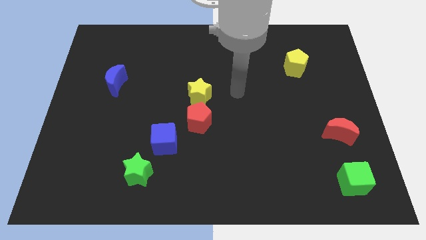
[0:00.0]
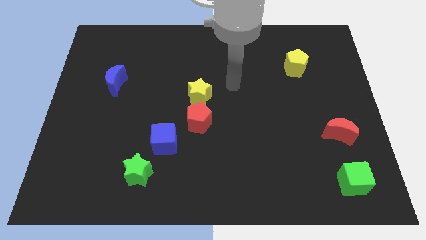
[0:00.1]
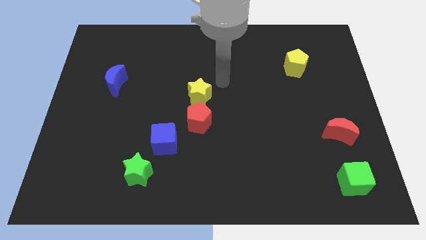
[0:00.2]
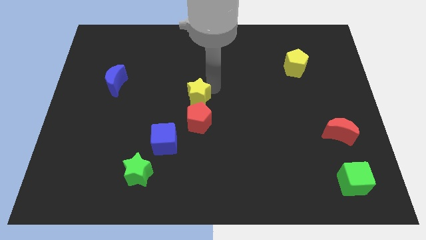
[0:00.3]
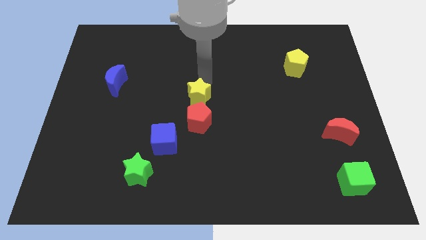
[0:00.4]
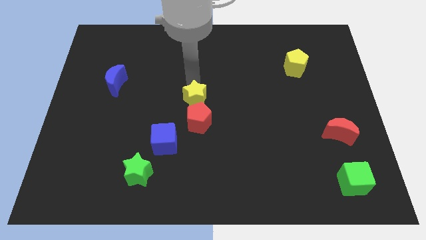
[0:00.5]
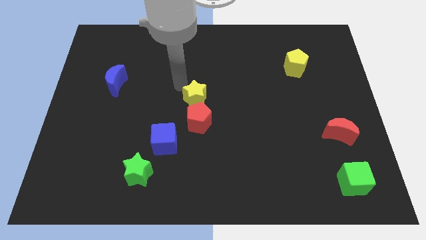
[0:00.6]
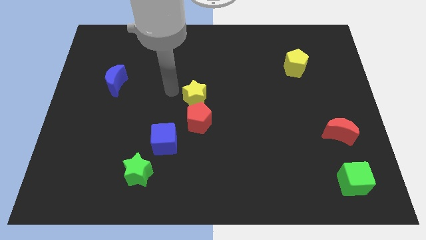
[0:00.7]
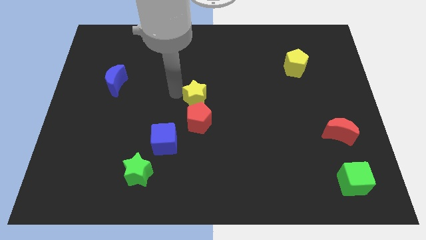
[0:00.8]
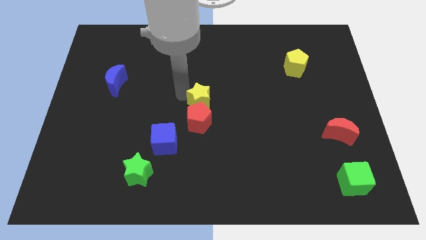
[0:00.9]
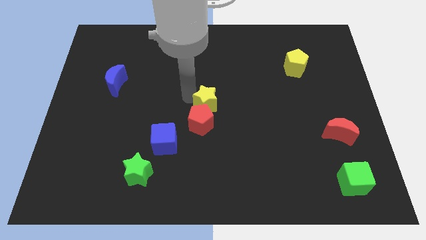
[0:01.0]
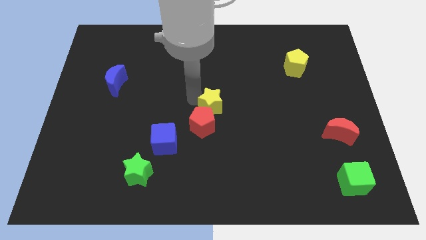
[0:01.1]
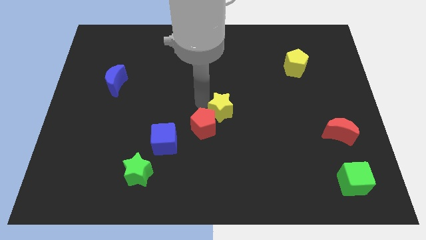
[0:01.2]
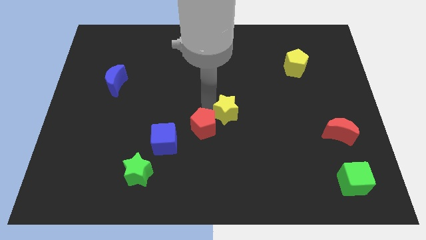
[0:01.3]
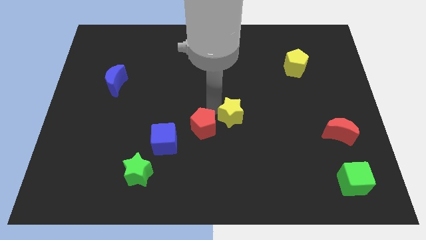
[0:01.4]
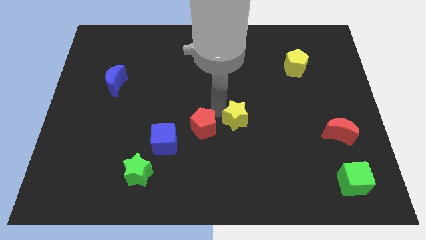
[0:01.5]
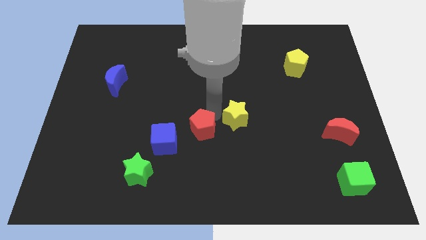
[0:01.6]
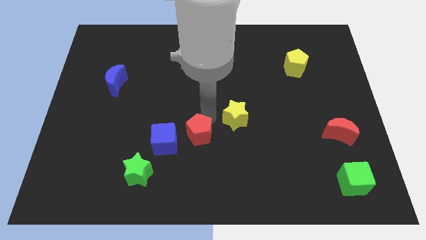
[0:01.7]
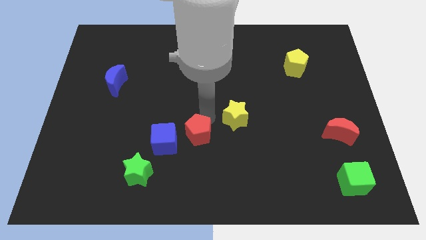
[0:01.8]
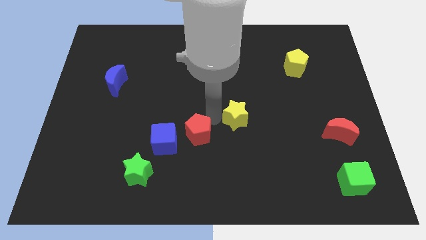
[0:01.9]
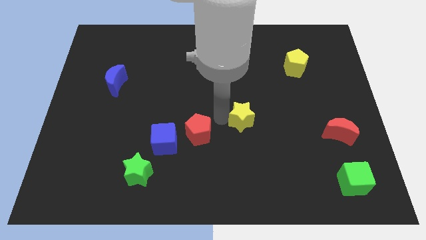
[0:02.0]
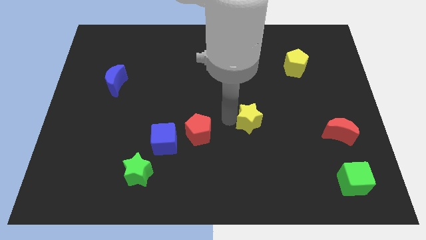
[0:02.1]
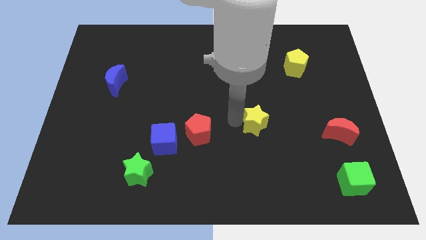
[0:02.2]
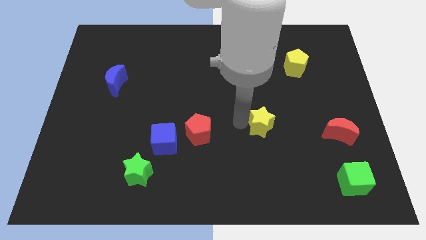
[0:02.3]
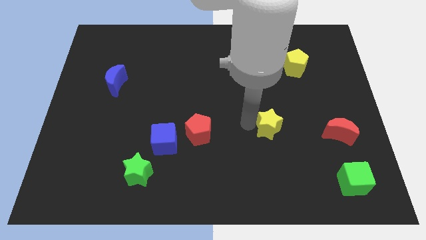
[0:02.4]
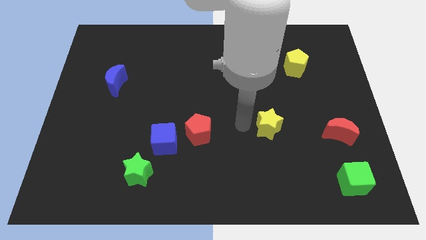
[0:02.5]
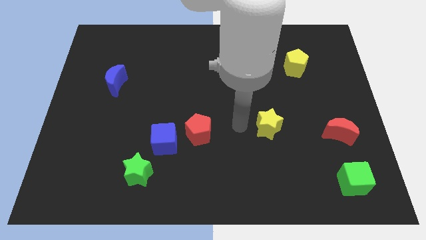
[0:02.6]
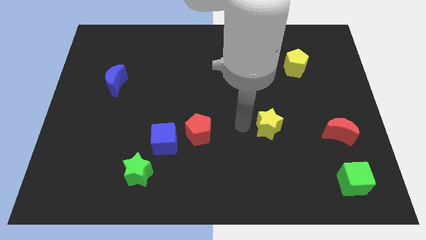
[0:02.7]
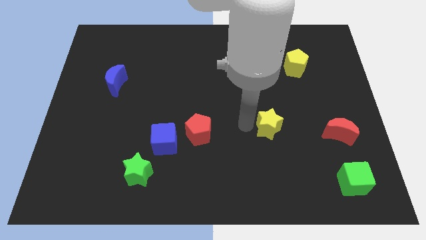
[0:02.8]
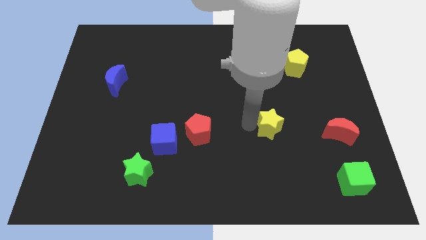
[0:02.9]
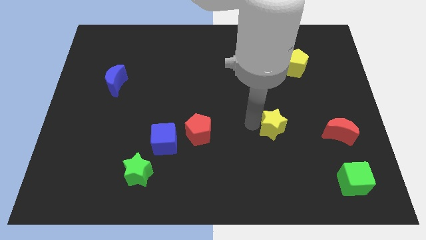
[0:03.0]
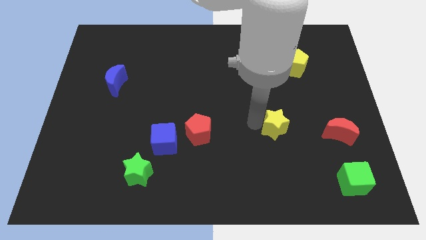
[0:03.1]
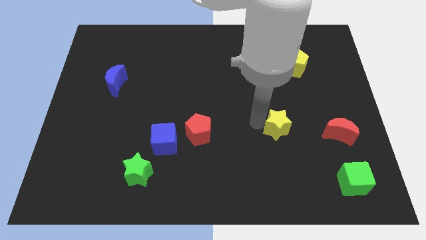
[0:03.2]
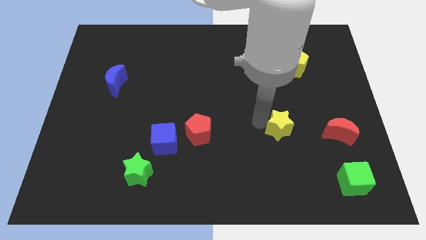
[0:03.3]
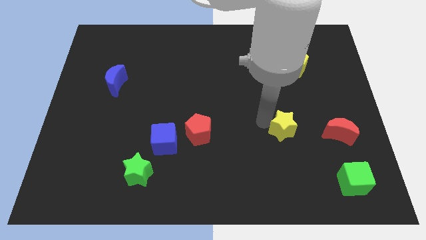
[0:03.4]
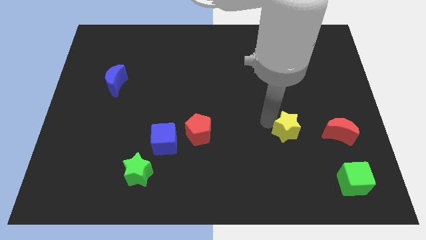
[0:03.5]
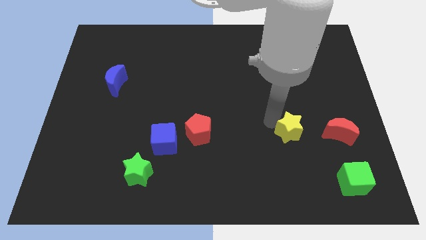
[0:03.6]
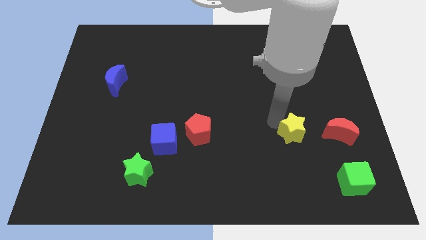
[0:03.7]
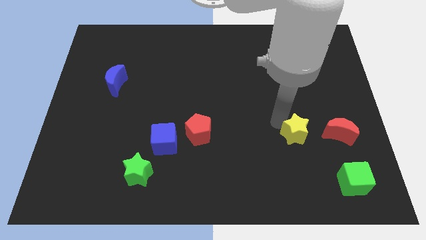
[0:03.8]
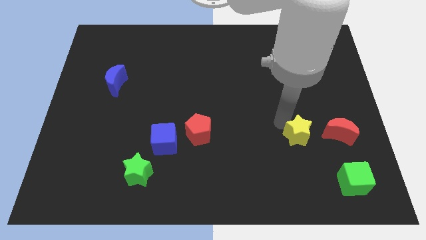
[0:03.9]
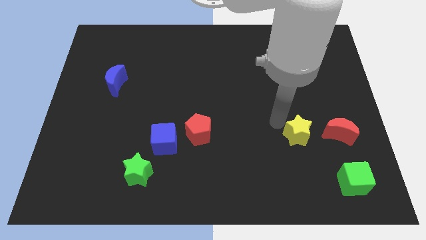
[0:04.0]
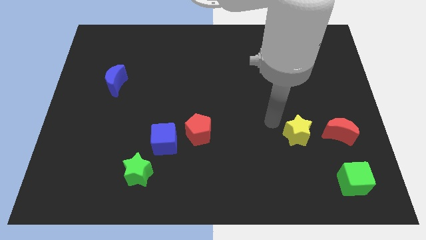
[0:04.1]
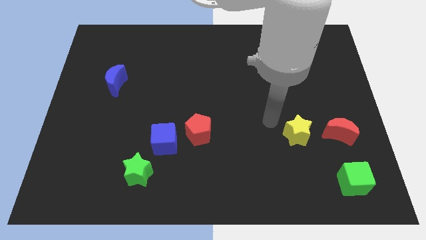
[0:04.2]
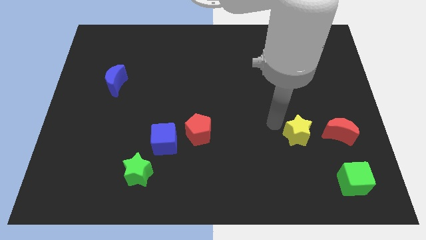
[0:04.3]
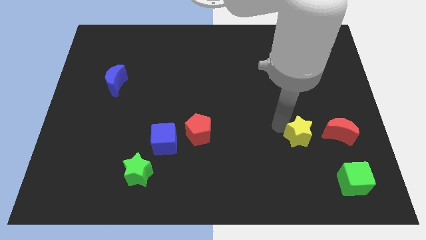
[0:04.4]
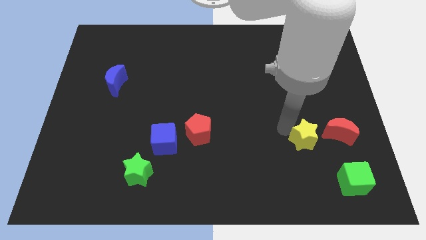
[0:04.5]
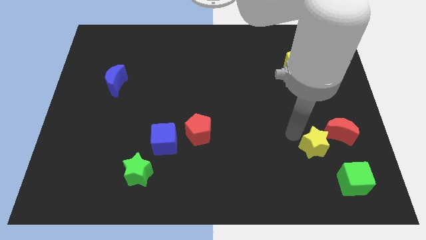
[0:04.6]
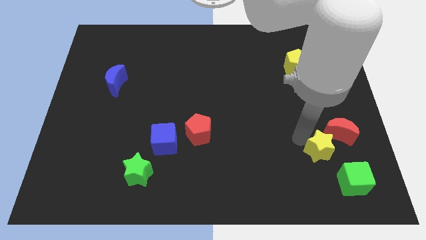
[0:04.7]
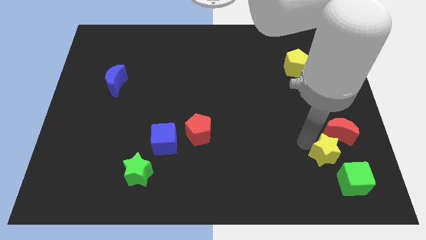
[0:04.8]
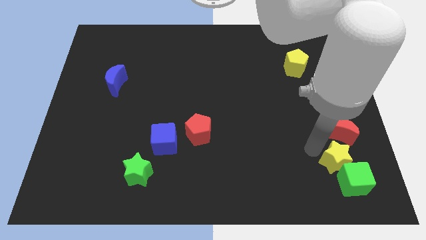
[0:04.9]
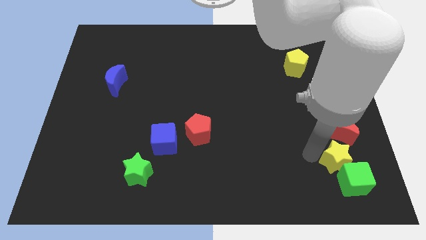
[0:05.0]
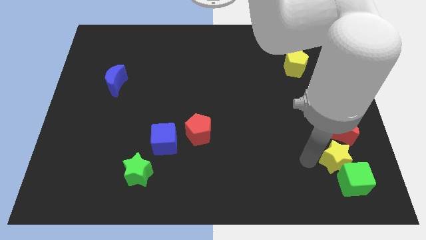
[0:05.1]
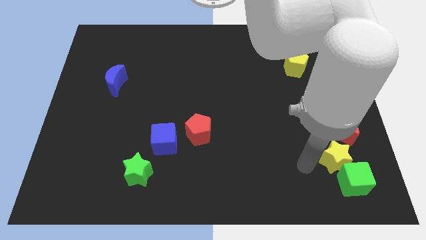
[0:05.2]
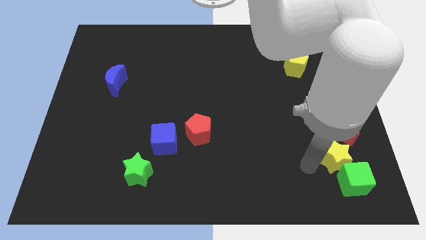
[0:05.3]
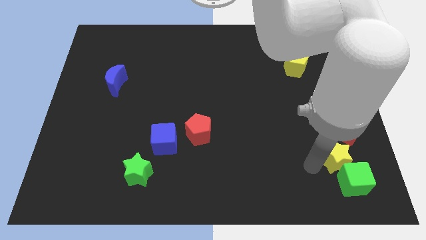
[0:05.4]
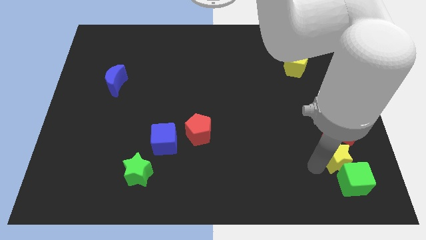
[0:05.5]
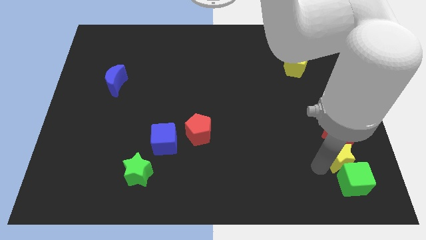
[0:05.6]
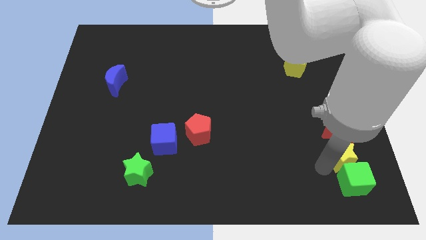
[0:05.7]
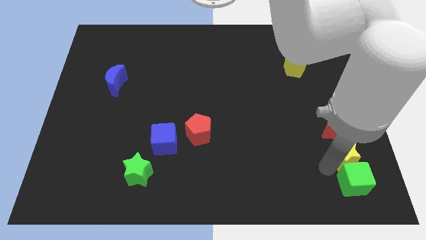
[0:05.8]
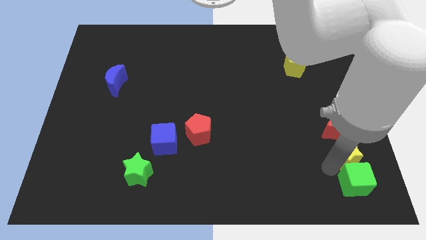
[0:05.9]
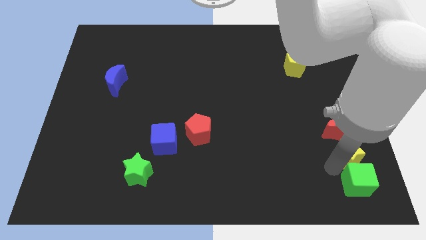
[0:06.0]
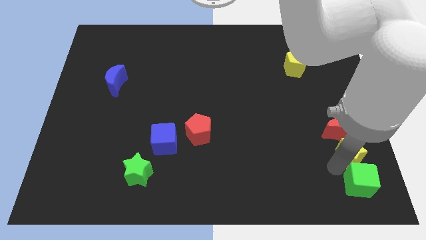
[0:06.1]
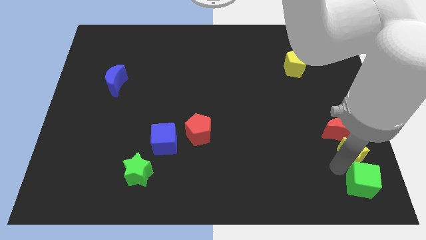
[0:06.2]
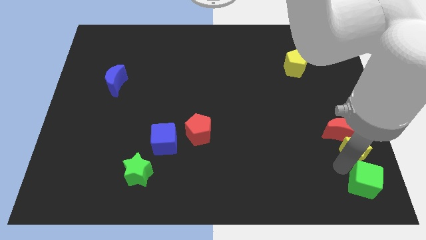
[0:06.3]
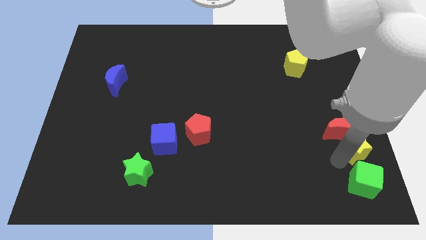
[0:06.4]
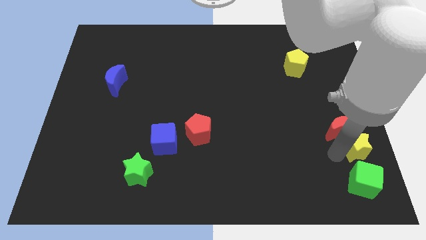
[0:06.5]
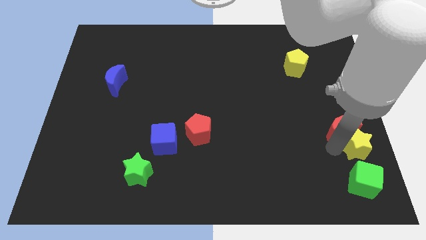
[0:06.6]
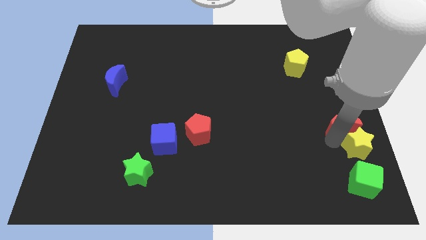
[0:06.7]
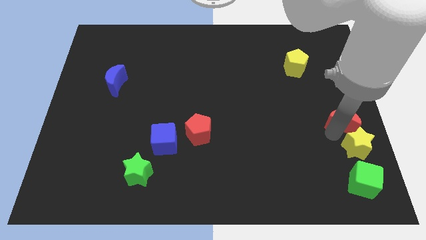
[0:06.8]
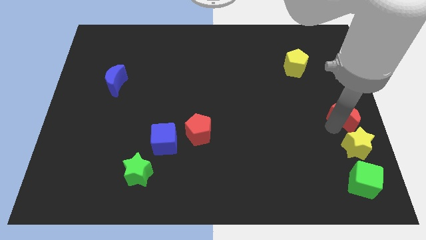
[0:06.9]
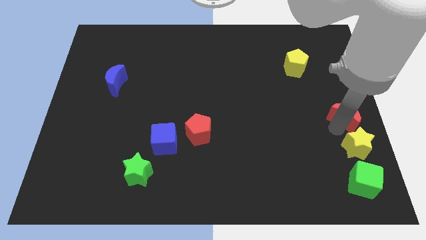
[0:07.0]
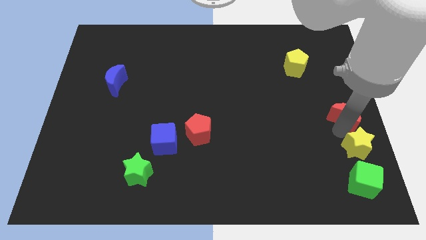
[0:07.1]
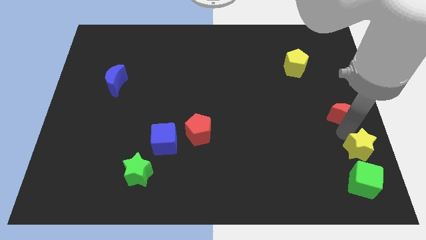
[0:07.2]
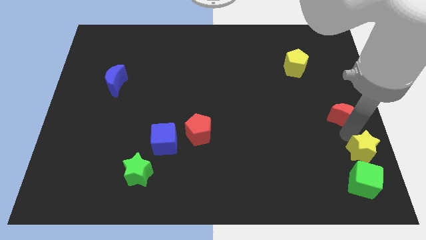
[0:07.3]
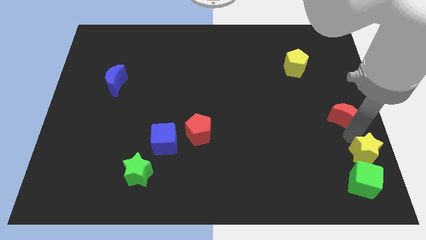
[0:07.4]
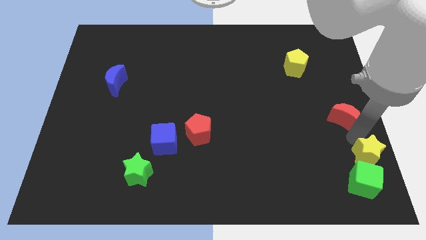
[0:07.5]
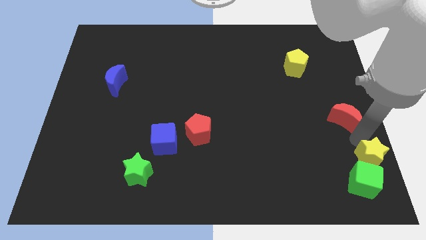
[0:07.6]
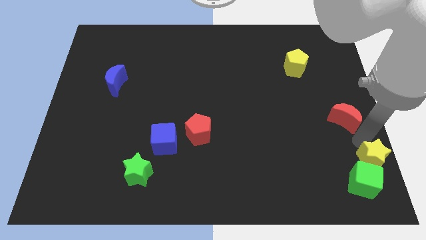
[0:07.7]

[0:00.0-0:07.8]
push the yellow star to the bottom right
